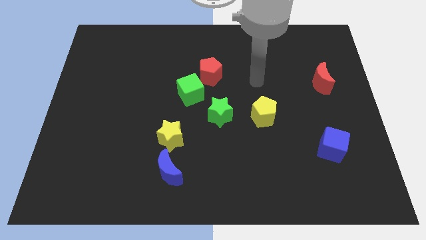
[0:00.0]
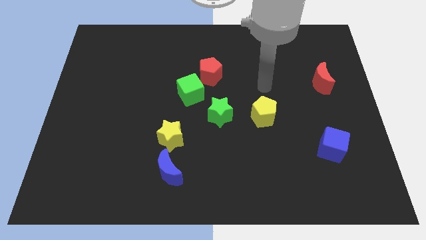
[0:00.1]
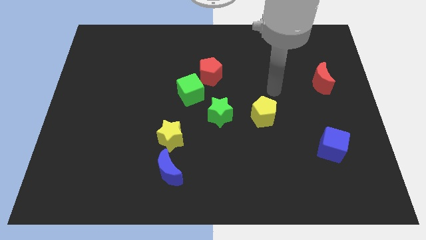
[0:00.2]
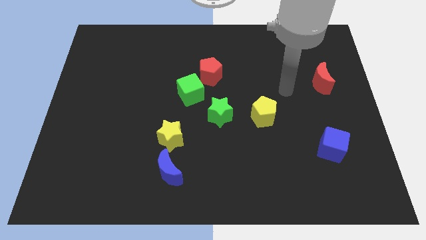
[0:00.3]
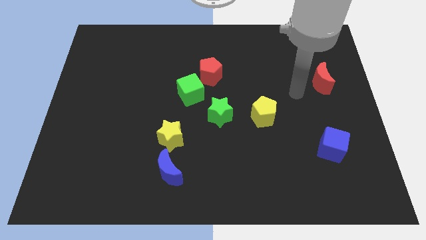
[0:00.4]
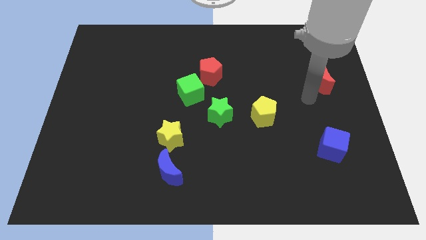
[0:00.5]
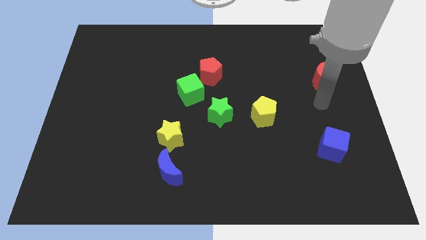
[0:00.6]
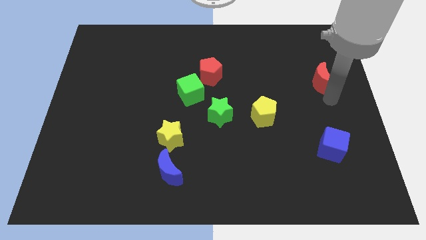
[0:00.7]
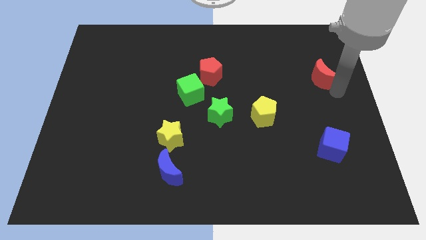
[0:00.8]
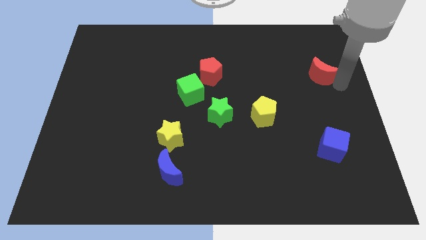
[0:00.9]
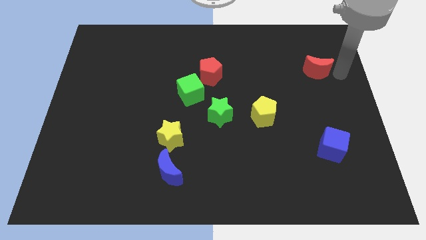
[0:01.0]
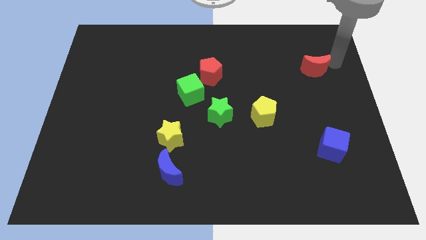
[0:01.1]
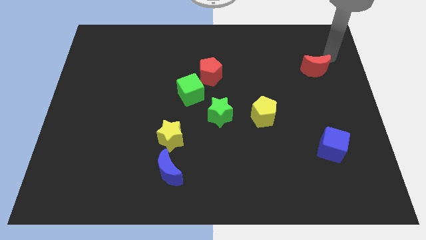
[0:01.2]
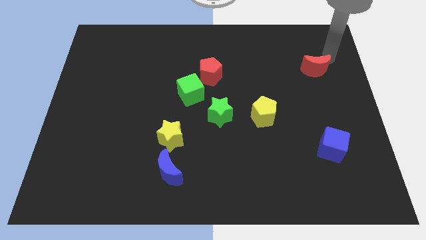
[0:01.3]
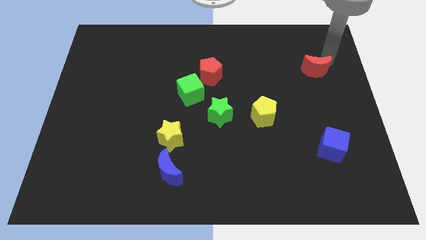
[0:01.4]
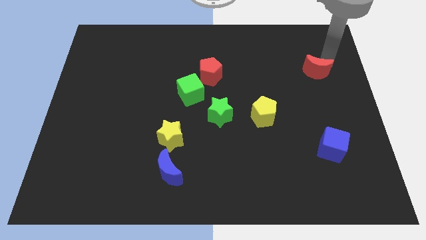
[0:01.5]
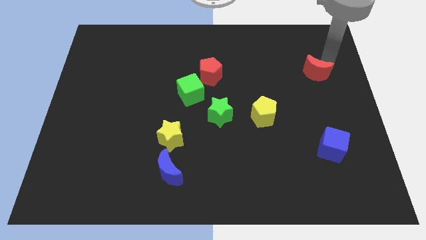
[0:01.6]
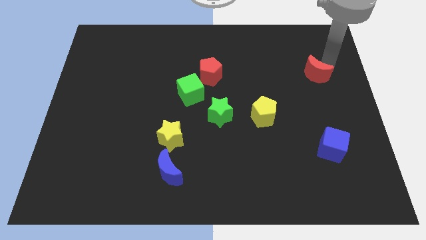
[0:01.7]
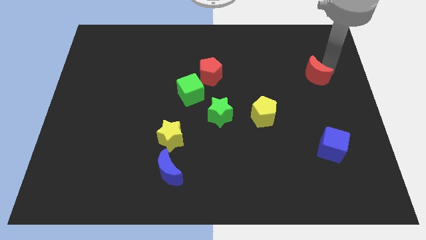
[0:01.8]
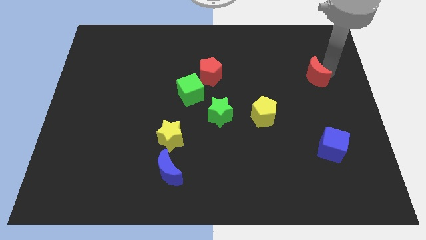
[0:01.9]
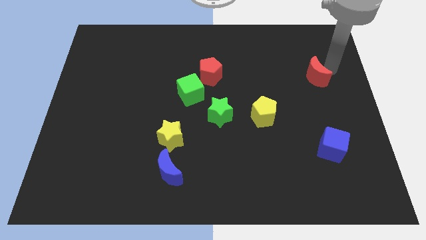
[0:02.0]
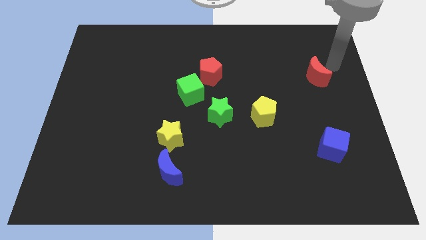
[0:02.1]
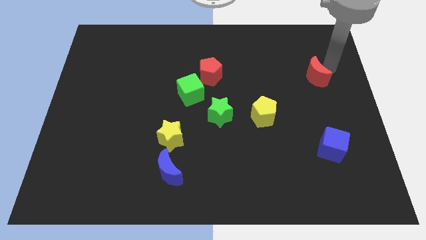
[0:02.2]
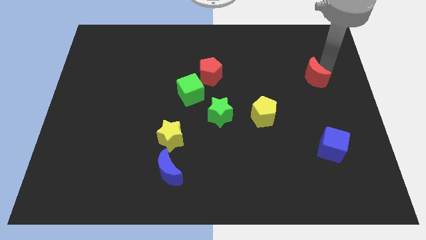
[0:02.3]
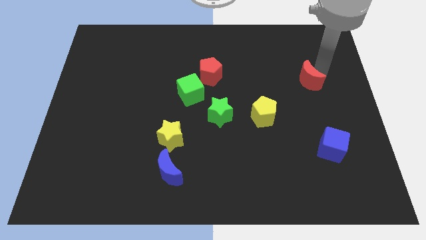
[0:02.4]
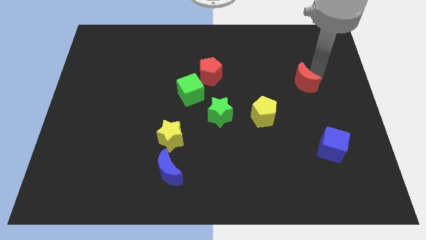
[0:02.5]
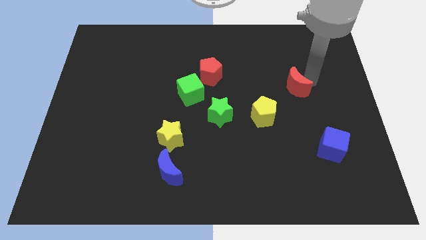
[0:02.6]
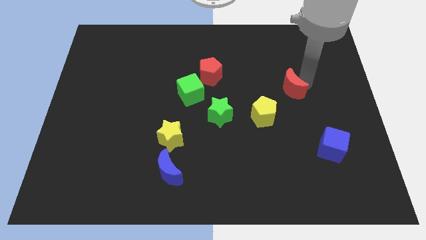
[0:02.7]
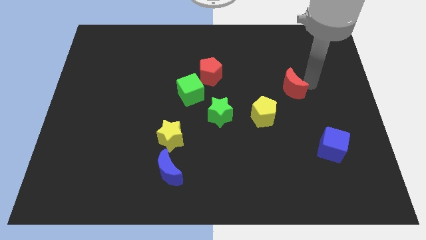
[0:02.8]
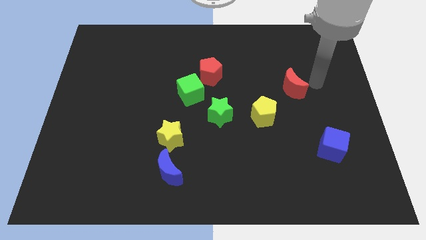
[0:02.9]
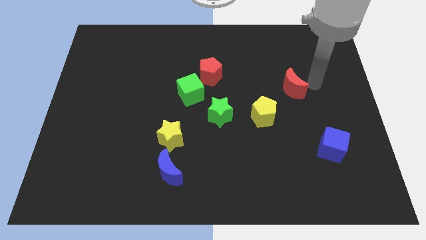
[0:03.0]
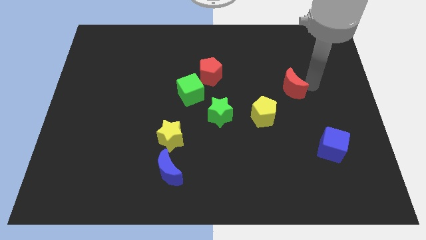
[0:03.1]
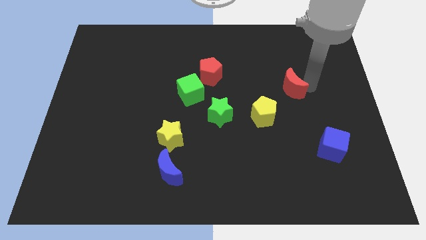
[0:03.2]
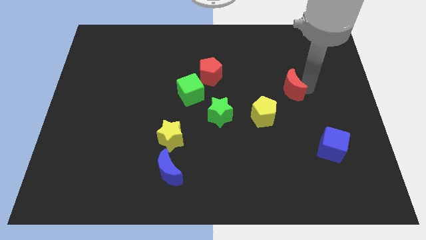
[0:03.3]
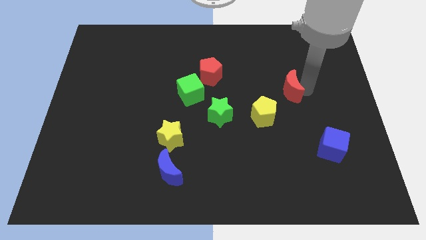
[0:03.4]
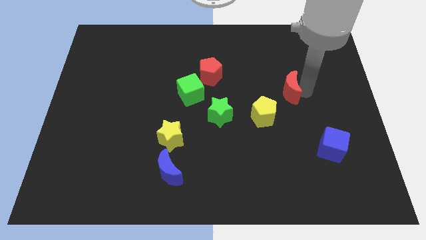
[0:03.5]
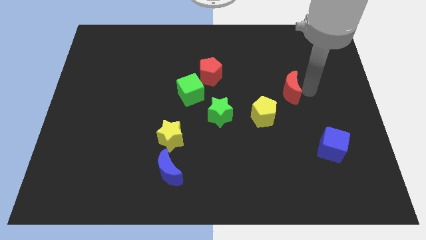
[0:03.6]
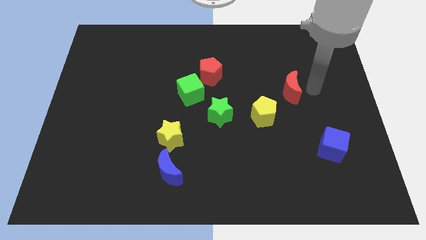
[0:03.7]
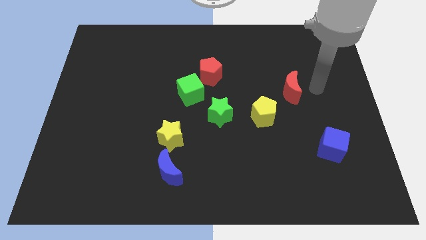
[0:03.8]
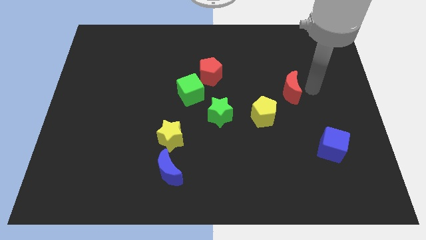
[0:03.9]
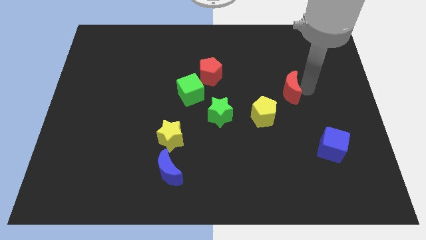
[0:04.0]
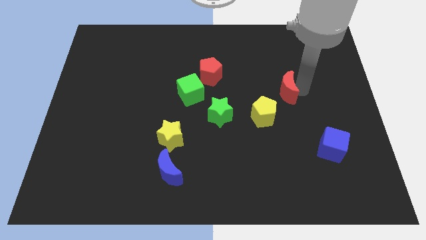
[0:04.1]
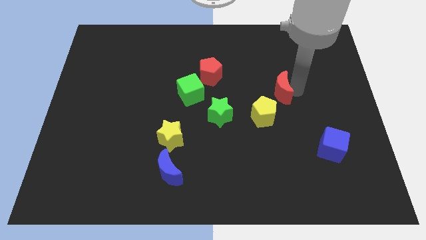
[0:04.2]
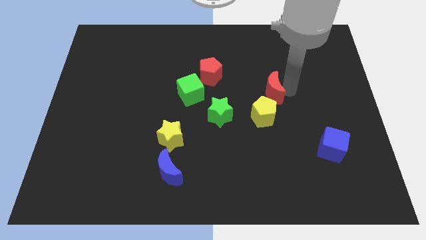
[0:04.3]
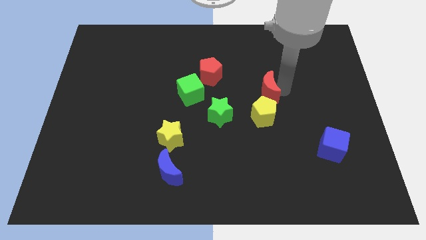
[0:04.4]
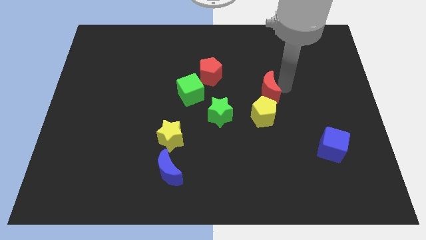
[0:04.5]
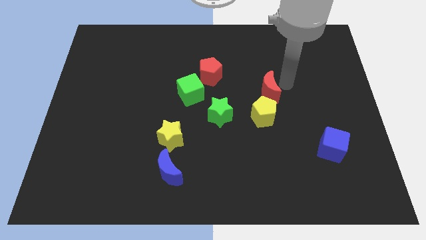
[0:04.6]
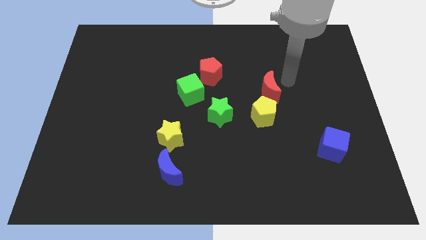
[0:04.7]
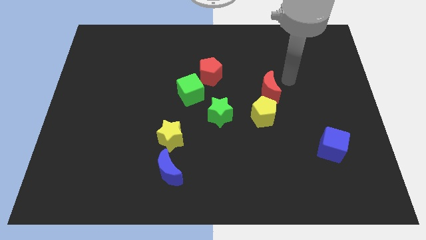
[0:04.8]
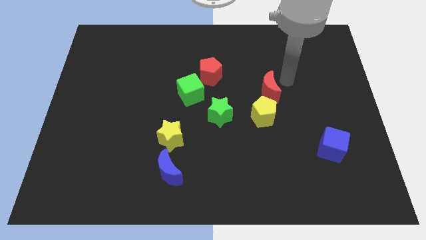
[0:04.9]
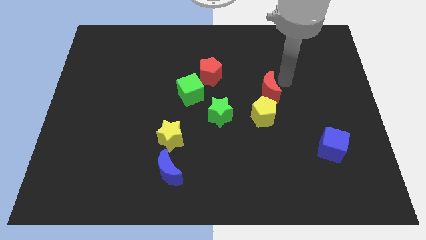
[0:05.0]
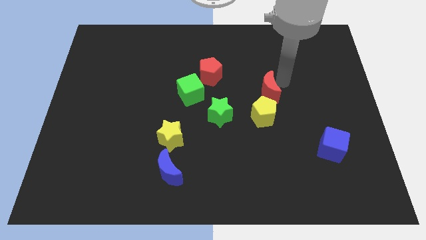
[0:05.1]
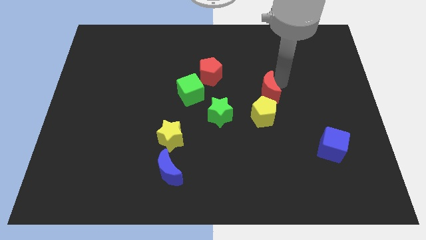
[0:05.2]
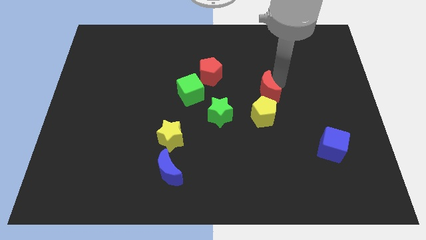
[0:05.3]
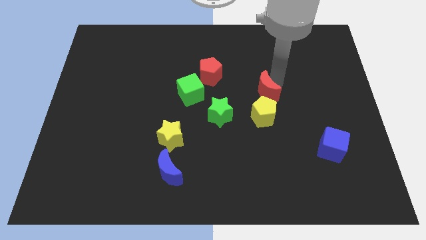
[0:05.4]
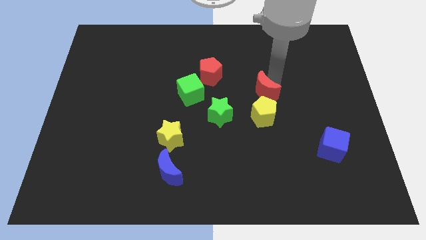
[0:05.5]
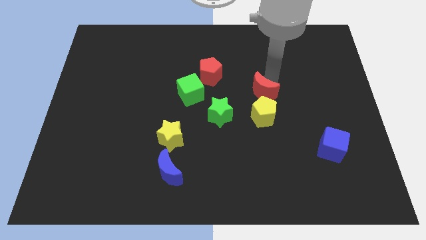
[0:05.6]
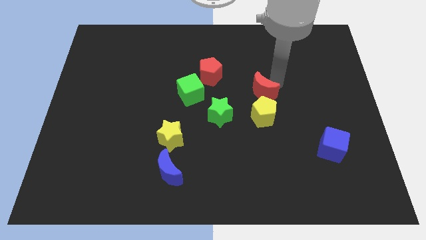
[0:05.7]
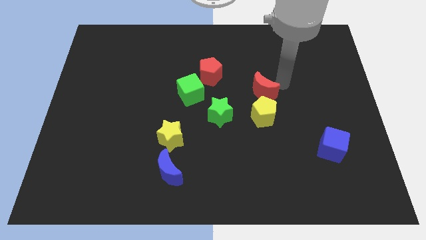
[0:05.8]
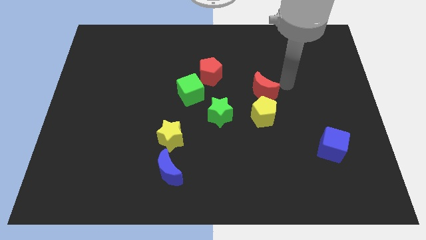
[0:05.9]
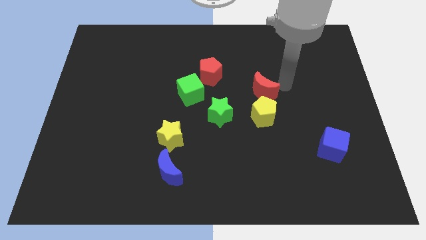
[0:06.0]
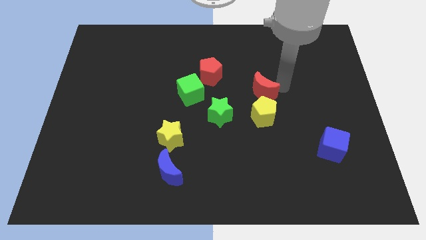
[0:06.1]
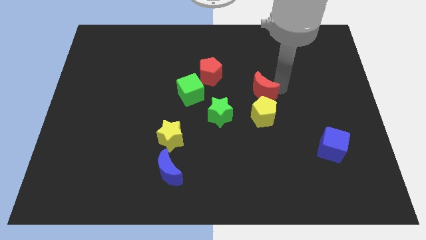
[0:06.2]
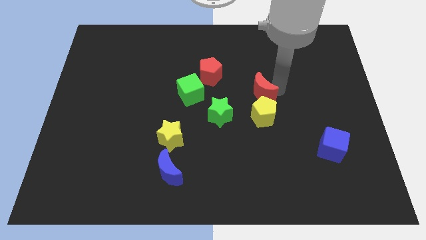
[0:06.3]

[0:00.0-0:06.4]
put the red moon to the top left side of the yellow pentagon
